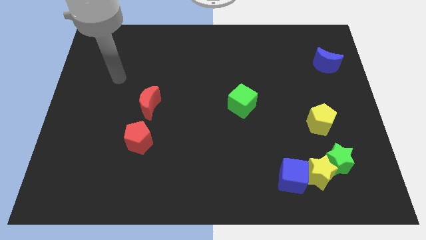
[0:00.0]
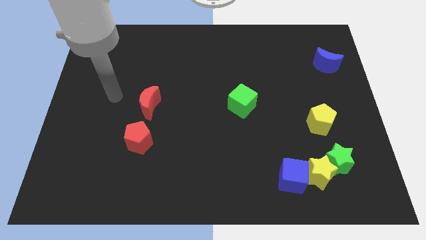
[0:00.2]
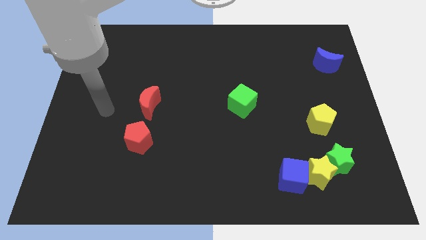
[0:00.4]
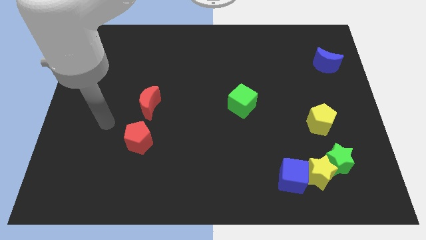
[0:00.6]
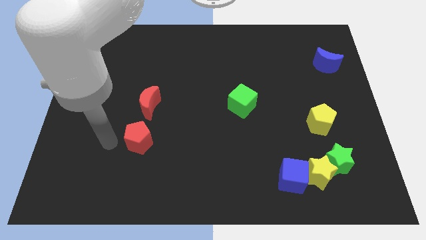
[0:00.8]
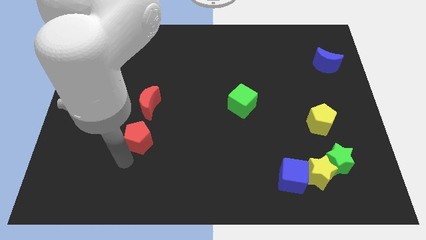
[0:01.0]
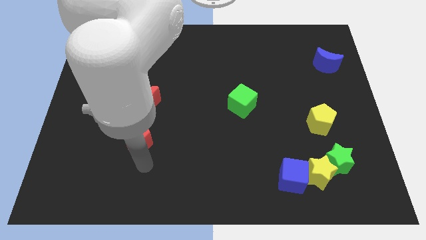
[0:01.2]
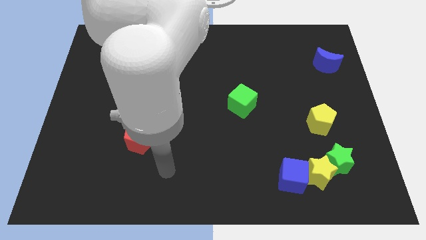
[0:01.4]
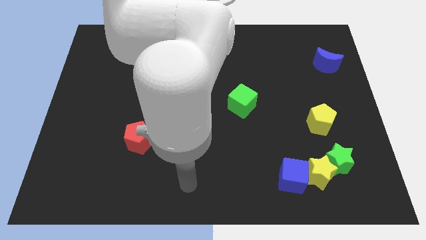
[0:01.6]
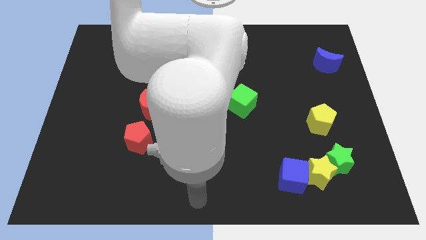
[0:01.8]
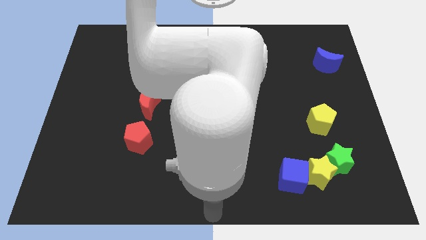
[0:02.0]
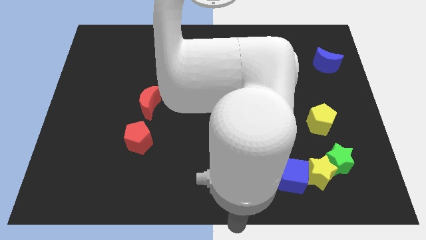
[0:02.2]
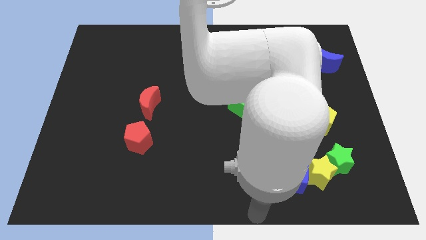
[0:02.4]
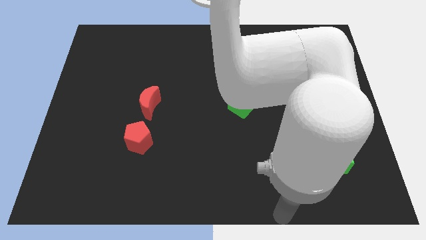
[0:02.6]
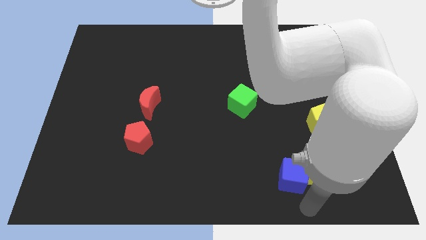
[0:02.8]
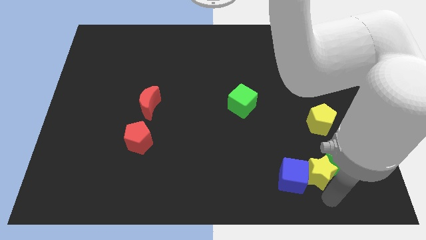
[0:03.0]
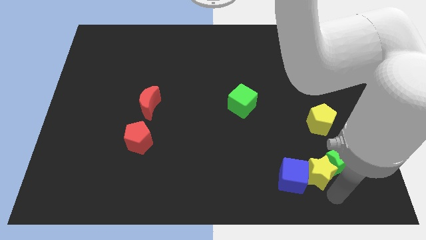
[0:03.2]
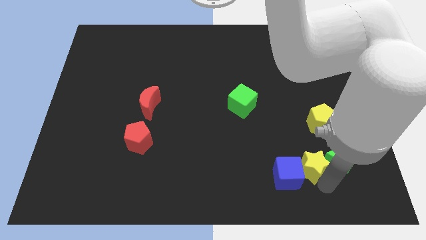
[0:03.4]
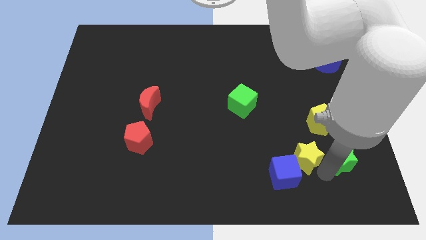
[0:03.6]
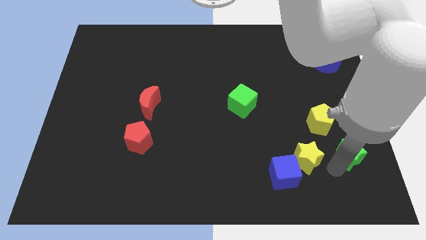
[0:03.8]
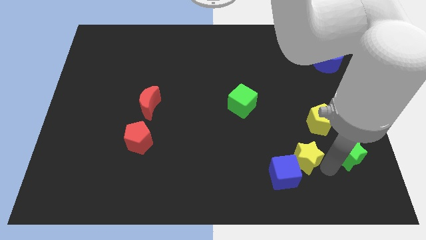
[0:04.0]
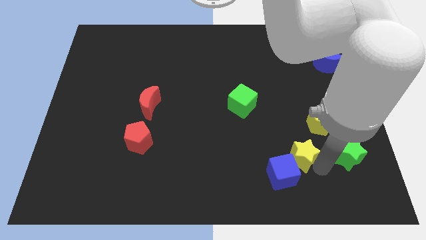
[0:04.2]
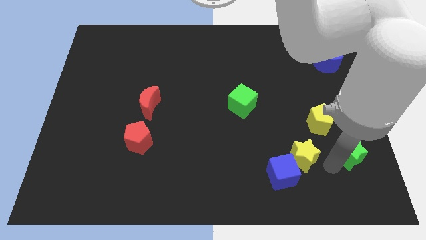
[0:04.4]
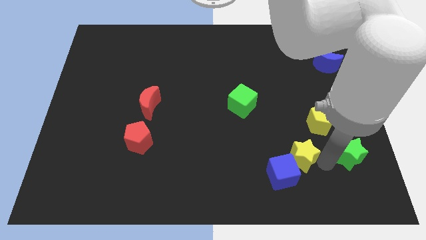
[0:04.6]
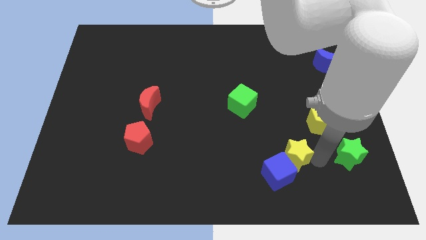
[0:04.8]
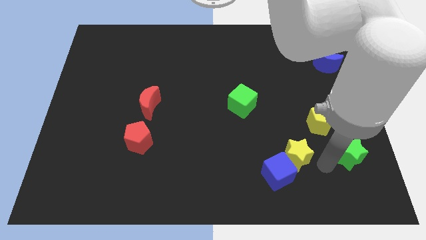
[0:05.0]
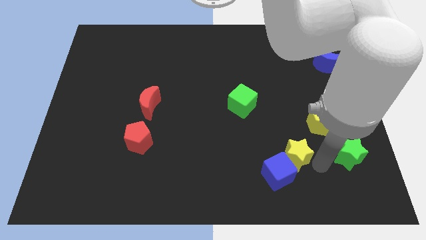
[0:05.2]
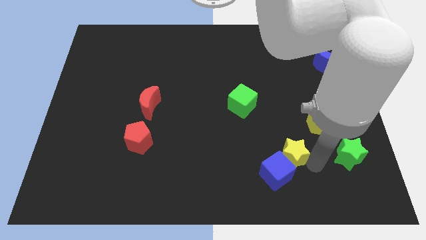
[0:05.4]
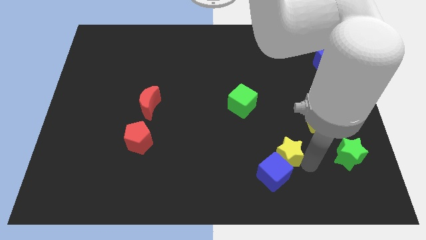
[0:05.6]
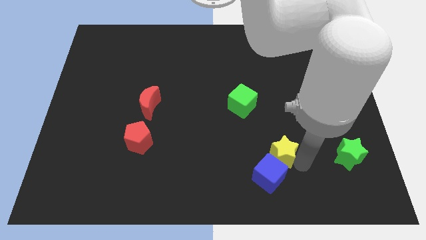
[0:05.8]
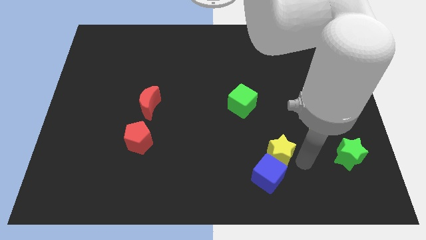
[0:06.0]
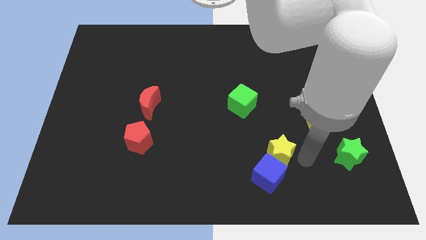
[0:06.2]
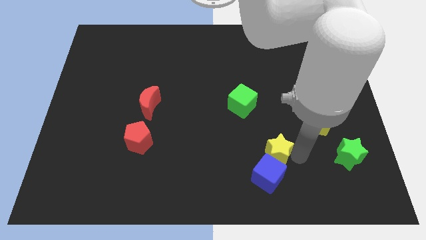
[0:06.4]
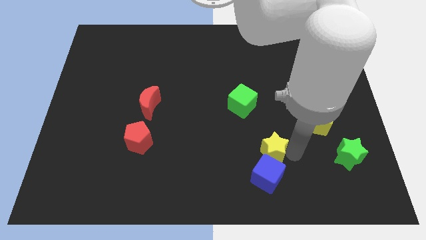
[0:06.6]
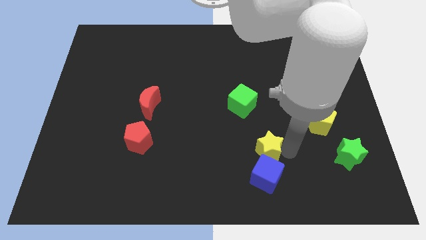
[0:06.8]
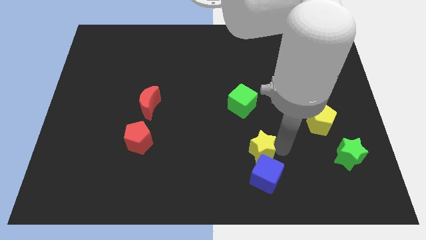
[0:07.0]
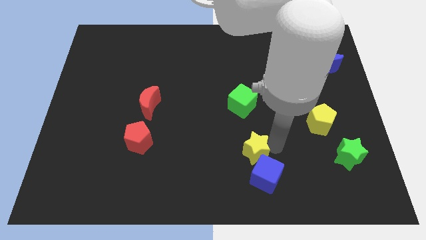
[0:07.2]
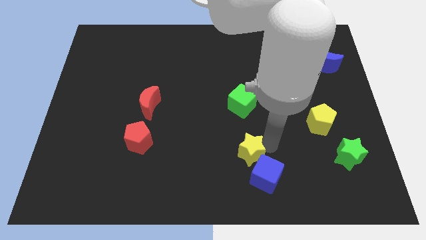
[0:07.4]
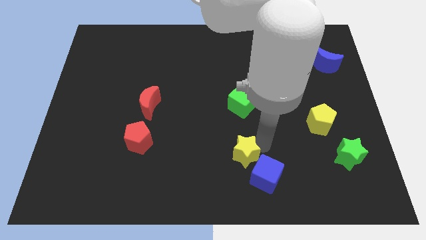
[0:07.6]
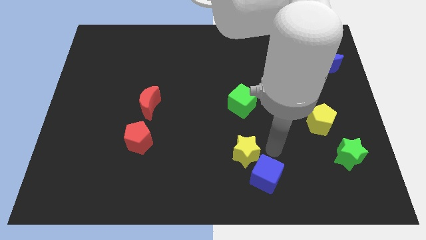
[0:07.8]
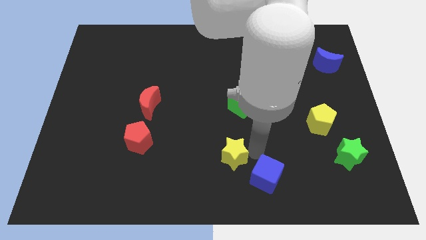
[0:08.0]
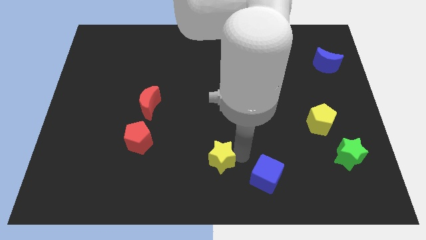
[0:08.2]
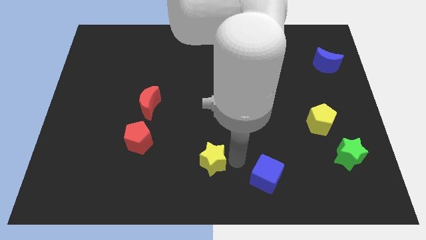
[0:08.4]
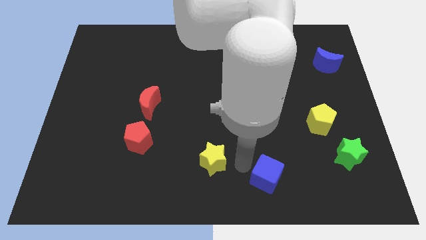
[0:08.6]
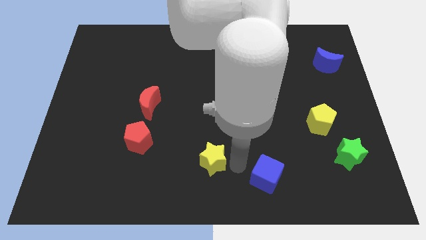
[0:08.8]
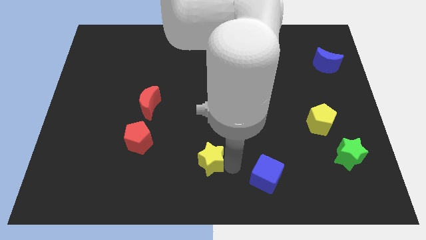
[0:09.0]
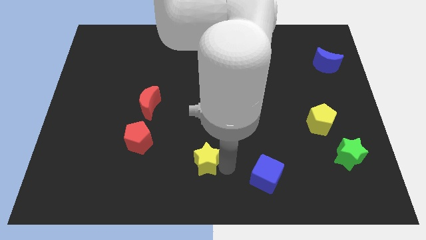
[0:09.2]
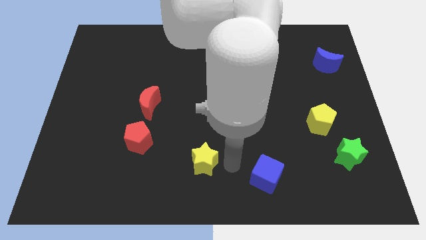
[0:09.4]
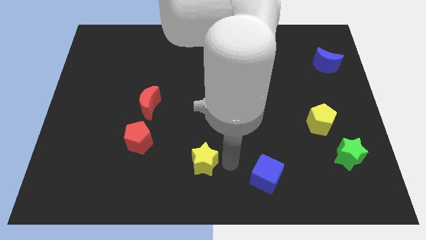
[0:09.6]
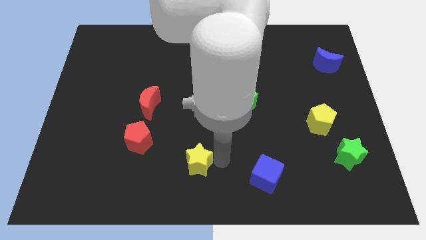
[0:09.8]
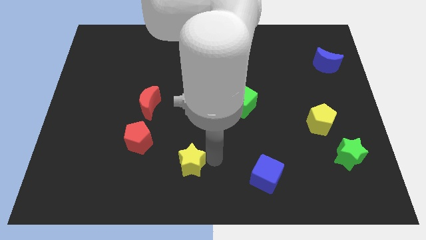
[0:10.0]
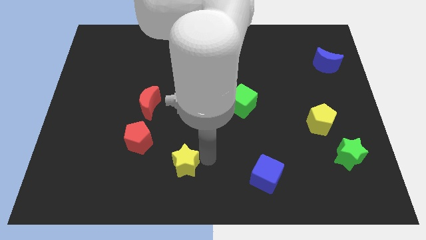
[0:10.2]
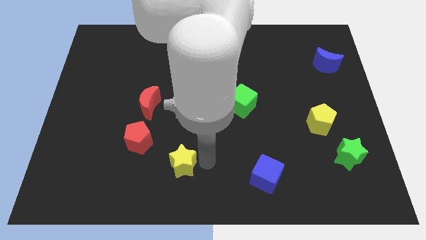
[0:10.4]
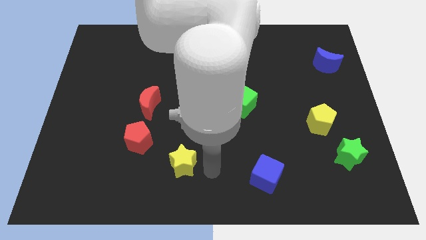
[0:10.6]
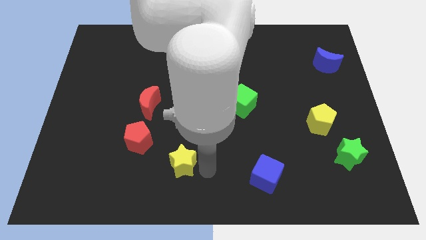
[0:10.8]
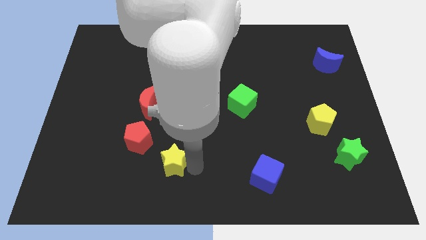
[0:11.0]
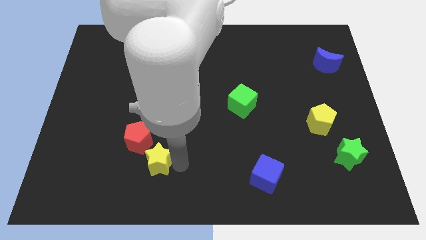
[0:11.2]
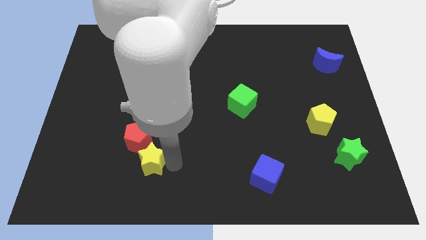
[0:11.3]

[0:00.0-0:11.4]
move the yellow star below the red moon

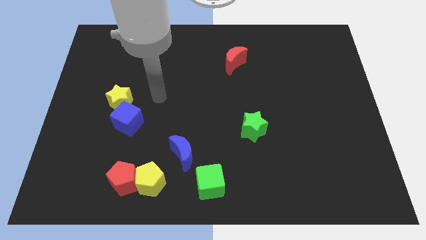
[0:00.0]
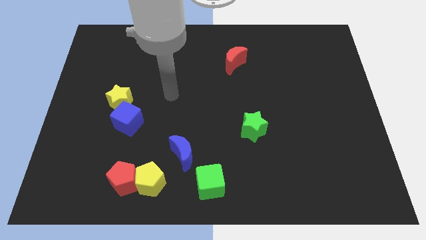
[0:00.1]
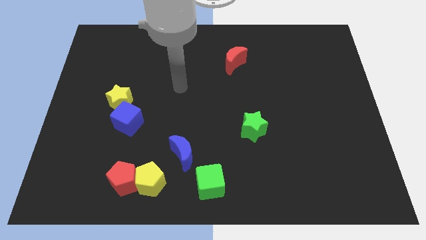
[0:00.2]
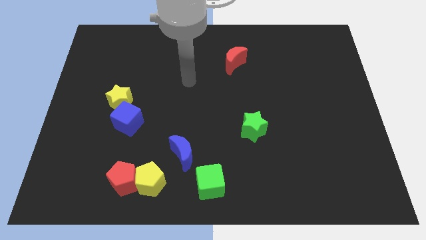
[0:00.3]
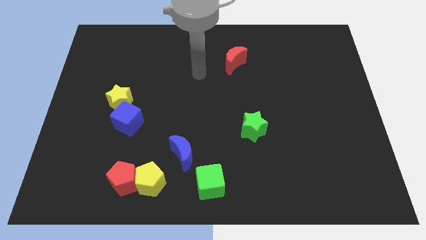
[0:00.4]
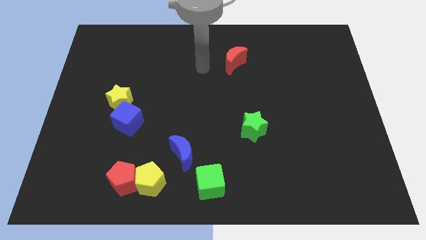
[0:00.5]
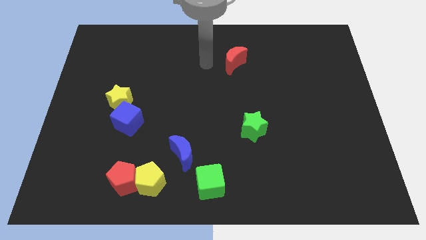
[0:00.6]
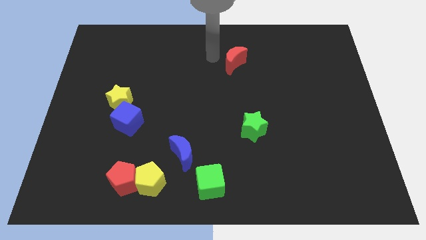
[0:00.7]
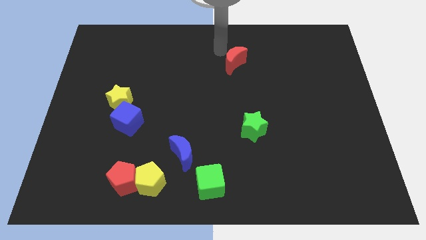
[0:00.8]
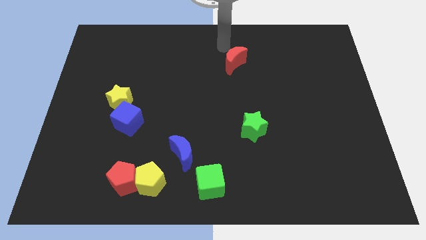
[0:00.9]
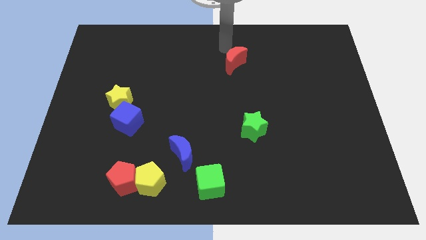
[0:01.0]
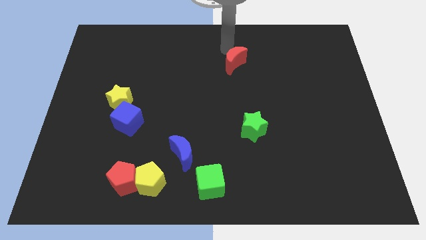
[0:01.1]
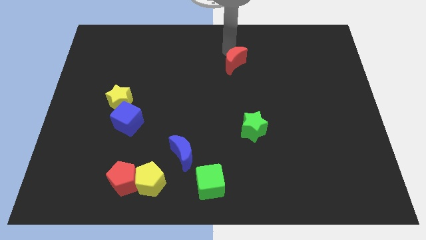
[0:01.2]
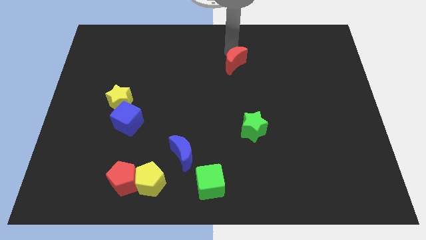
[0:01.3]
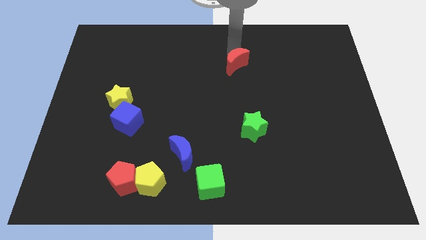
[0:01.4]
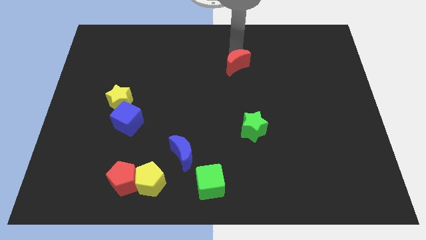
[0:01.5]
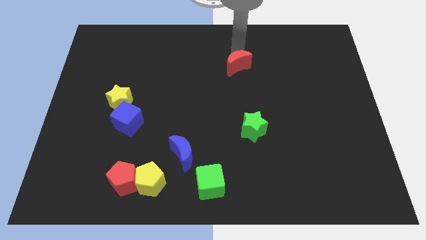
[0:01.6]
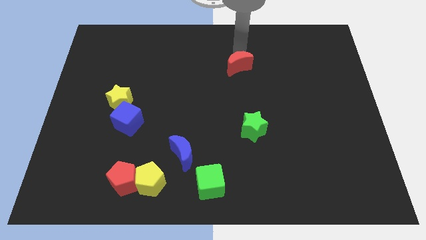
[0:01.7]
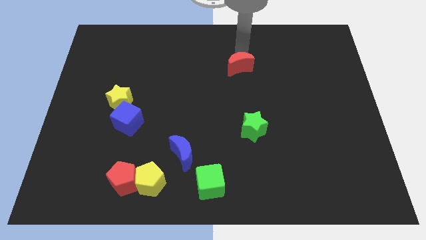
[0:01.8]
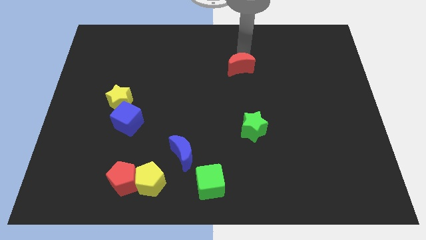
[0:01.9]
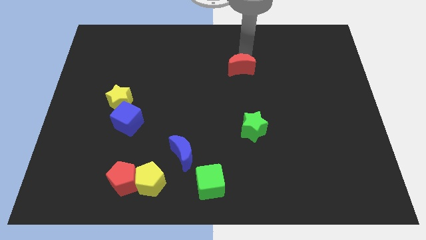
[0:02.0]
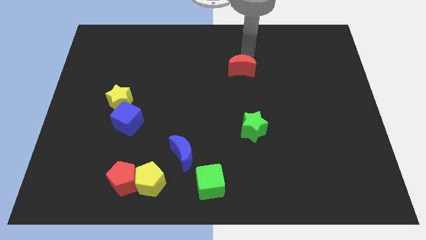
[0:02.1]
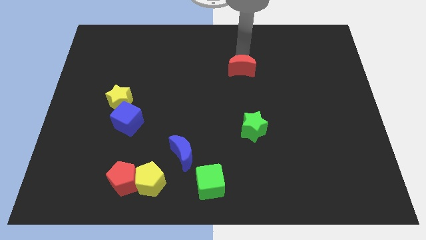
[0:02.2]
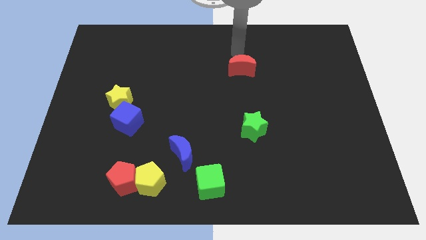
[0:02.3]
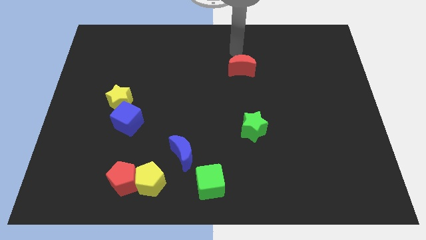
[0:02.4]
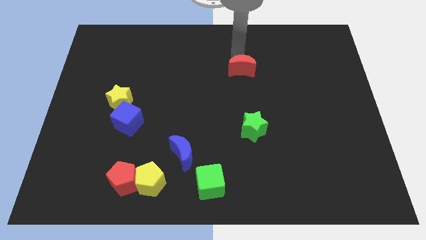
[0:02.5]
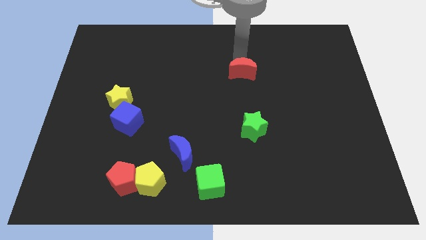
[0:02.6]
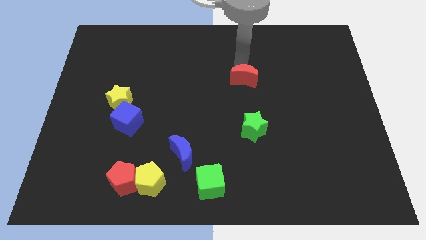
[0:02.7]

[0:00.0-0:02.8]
push the red moon to the top side of the green star
